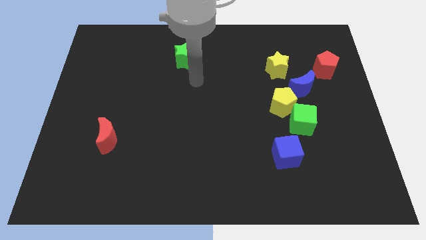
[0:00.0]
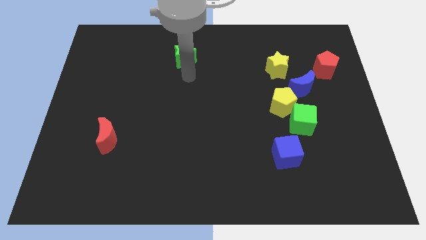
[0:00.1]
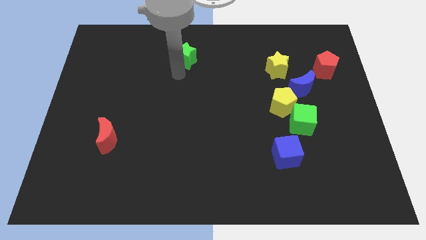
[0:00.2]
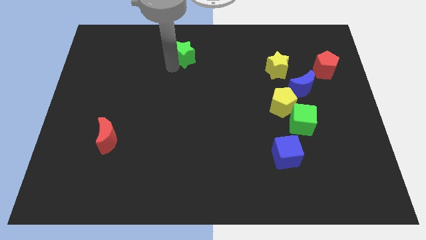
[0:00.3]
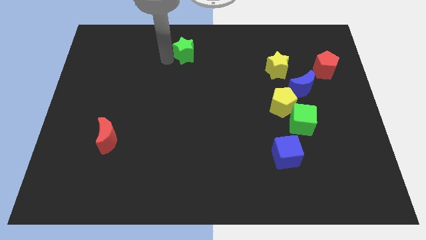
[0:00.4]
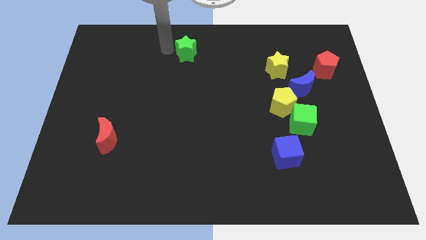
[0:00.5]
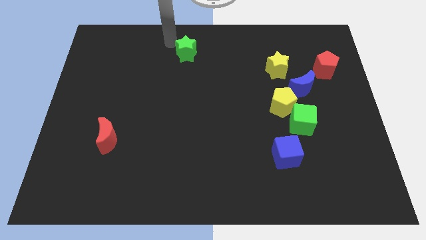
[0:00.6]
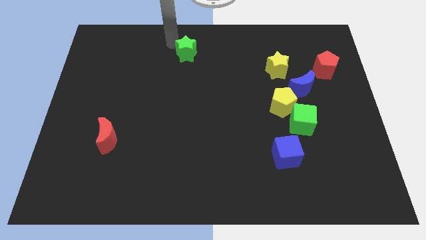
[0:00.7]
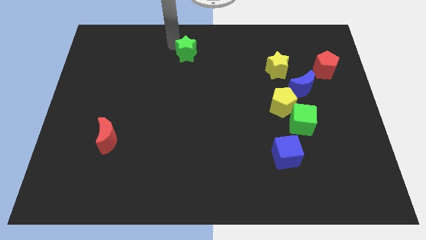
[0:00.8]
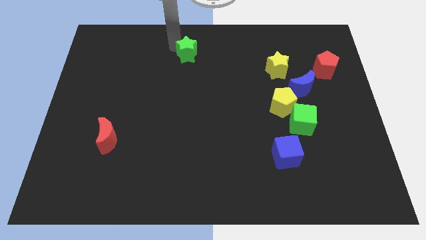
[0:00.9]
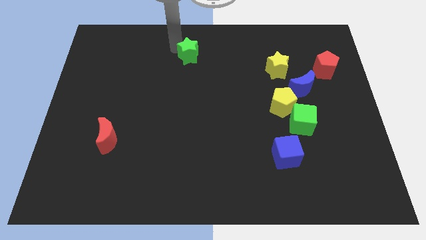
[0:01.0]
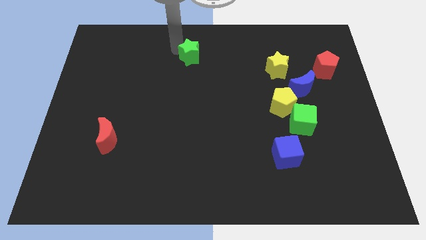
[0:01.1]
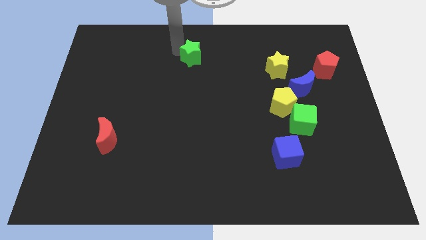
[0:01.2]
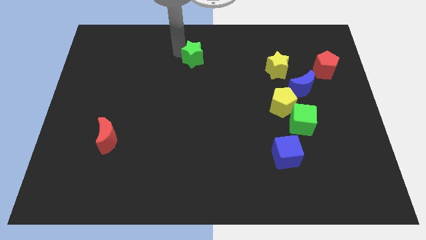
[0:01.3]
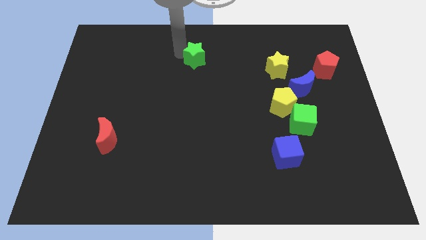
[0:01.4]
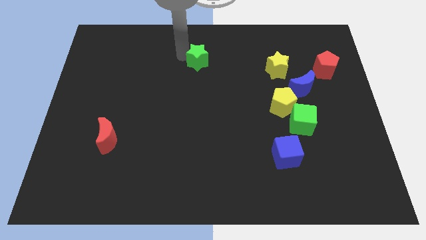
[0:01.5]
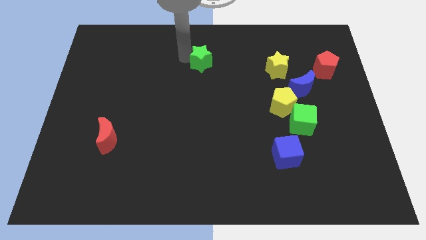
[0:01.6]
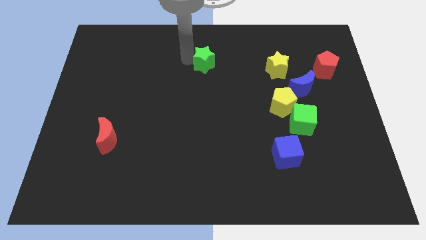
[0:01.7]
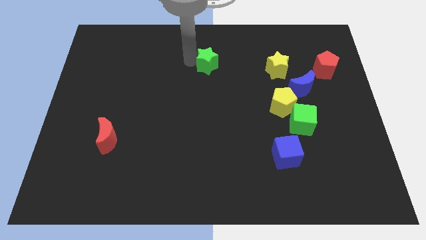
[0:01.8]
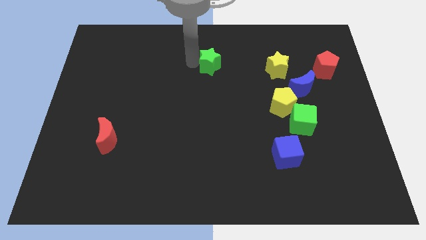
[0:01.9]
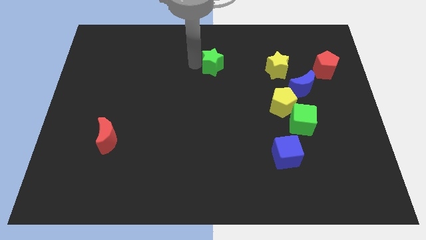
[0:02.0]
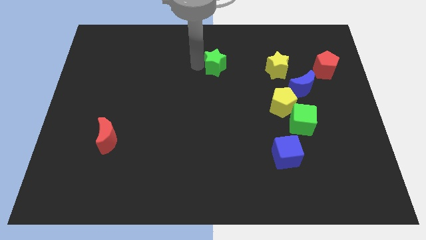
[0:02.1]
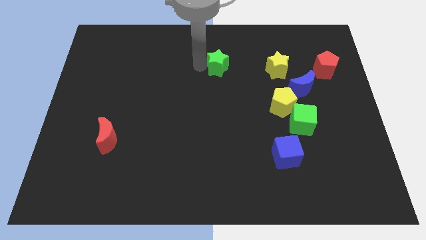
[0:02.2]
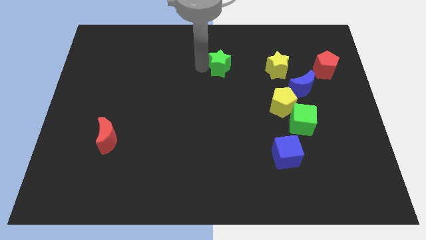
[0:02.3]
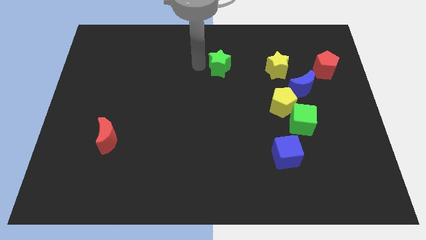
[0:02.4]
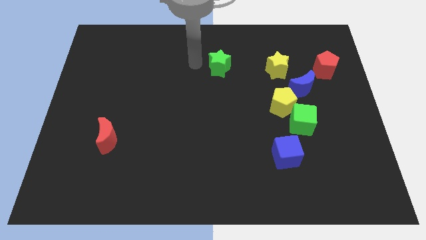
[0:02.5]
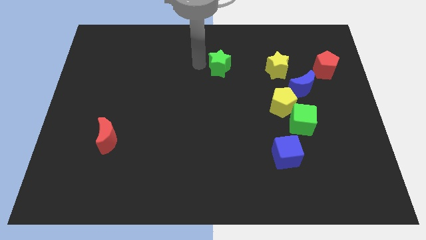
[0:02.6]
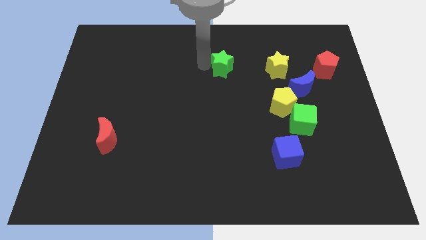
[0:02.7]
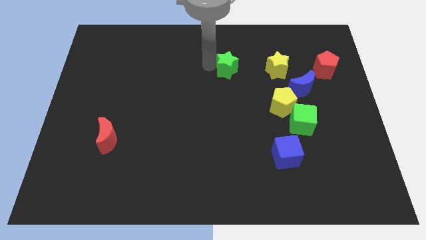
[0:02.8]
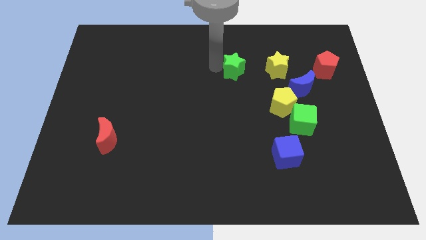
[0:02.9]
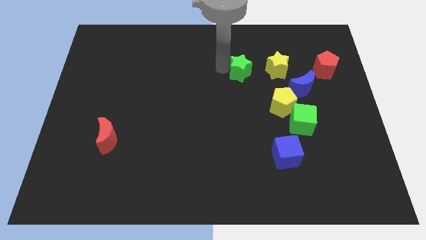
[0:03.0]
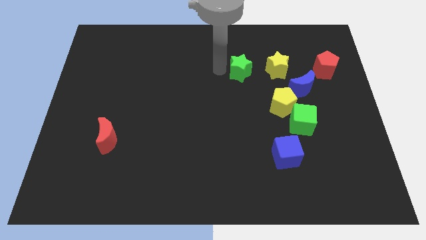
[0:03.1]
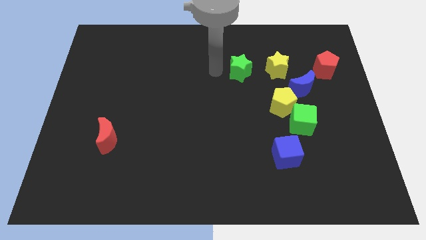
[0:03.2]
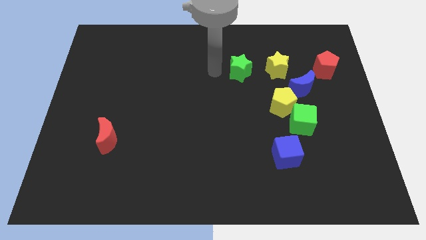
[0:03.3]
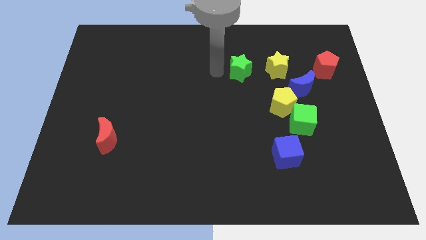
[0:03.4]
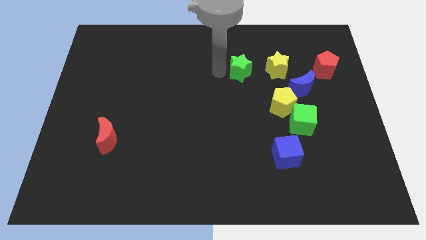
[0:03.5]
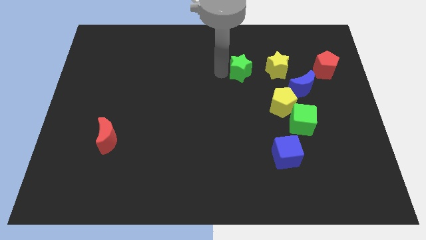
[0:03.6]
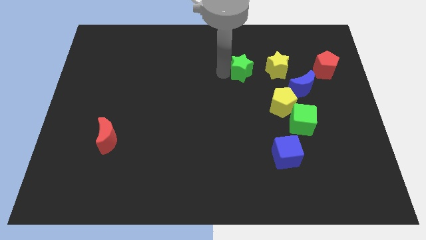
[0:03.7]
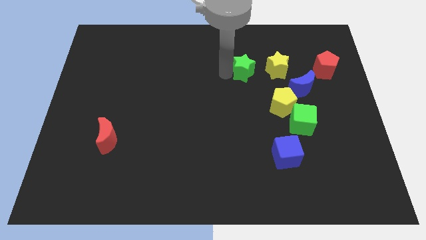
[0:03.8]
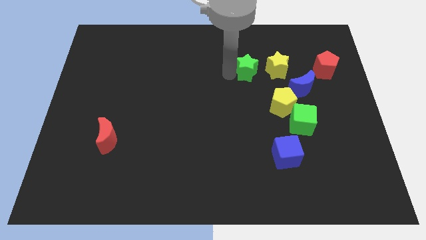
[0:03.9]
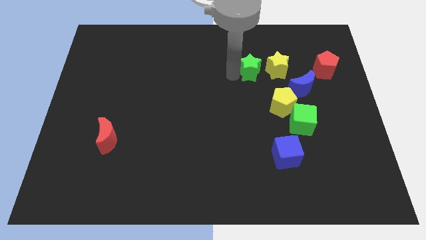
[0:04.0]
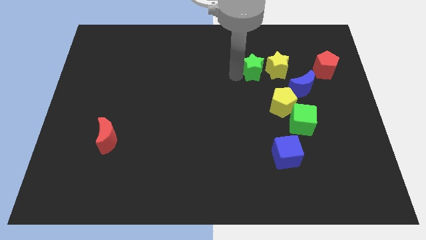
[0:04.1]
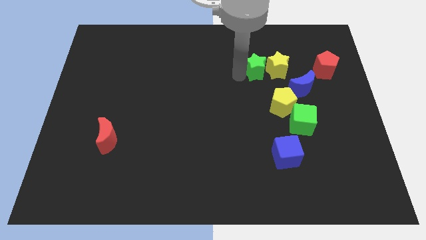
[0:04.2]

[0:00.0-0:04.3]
move the green star towards the yellow star

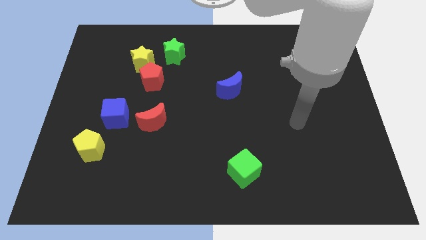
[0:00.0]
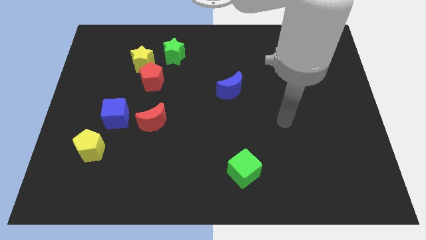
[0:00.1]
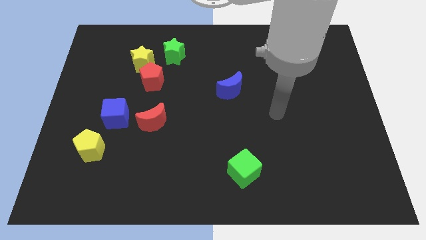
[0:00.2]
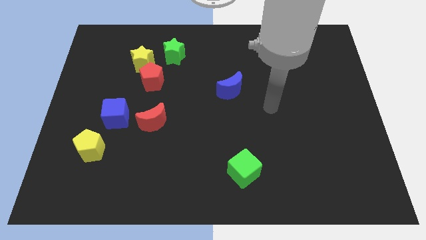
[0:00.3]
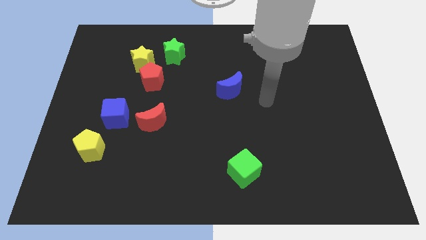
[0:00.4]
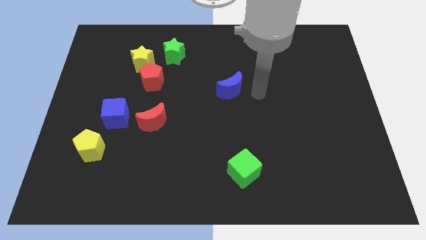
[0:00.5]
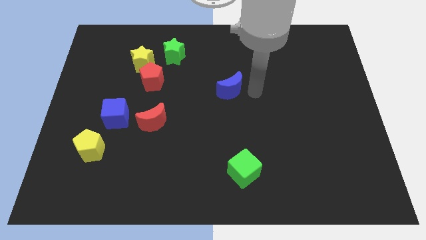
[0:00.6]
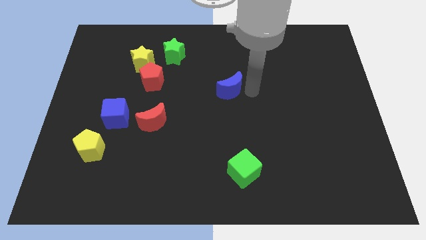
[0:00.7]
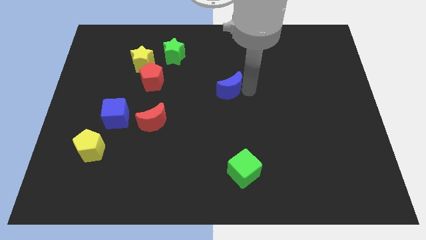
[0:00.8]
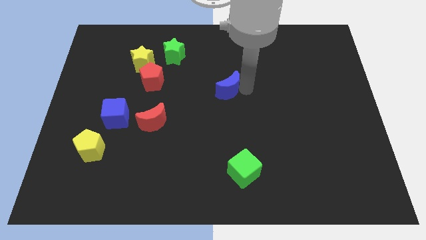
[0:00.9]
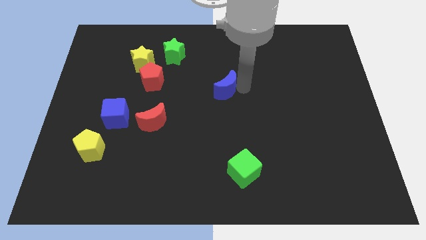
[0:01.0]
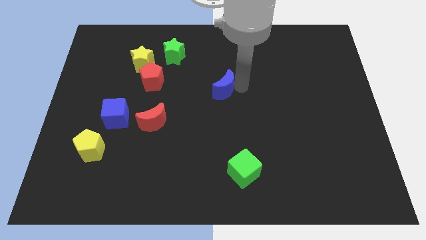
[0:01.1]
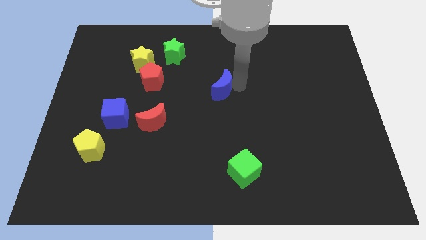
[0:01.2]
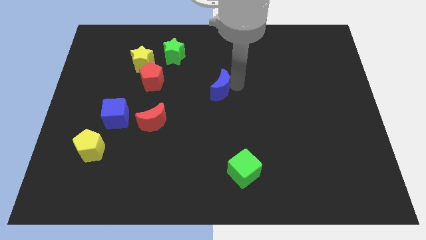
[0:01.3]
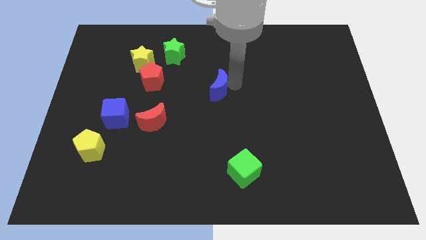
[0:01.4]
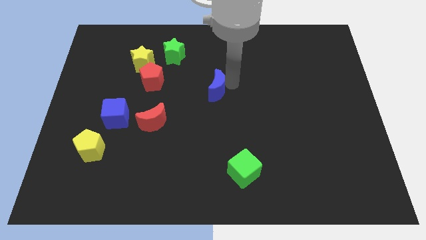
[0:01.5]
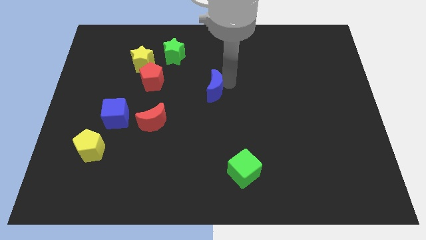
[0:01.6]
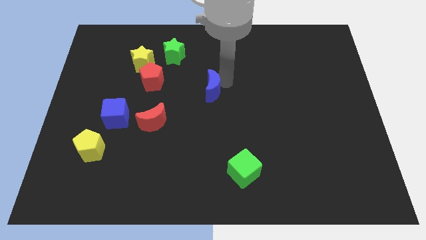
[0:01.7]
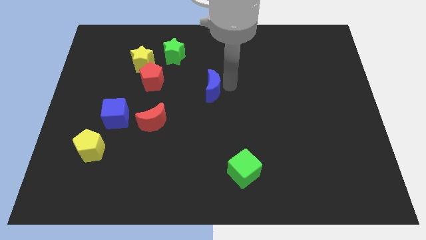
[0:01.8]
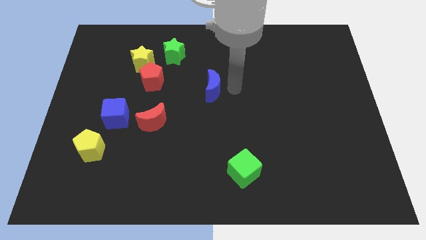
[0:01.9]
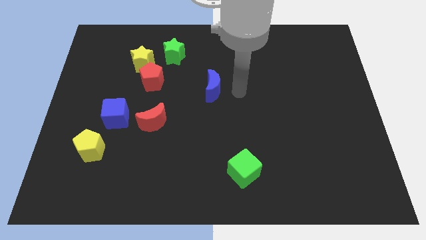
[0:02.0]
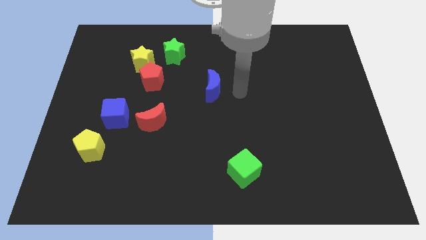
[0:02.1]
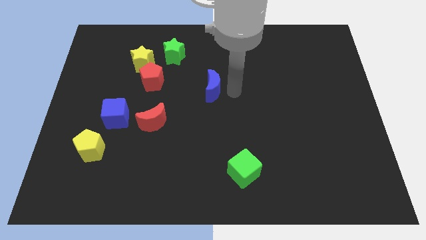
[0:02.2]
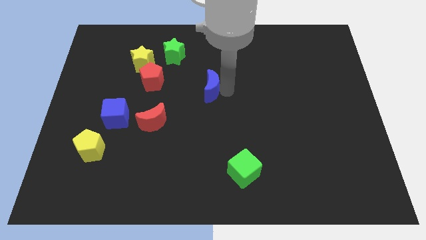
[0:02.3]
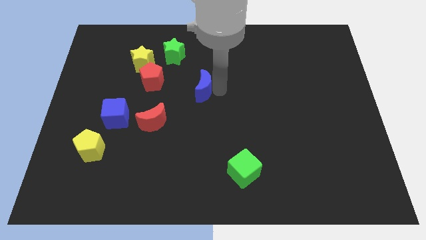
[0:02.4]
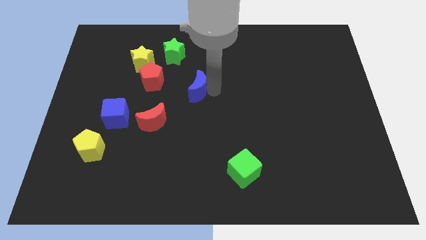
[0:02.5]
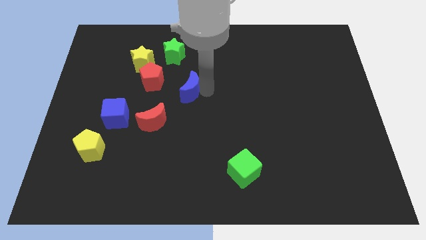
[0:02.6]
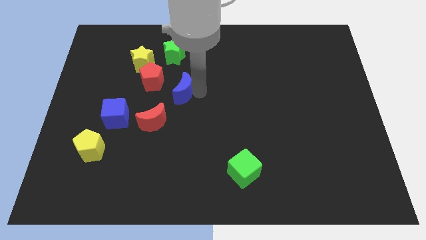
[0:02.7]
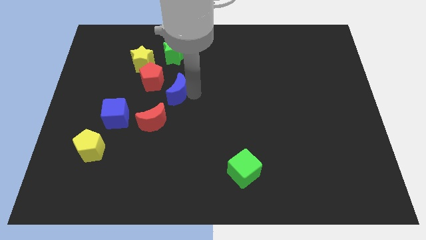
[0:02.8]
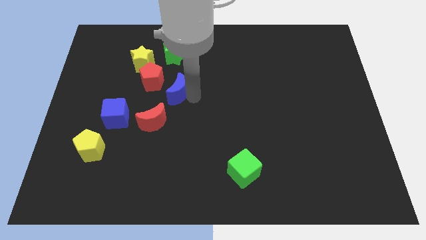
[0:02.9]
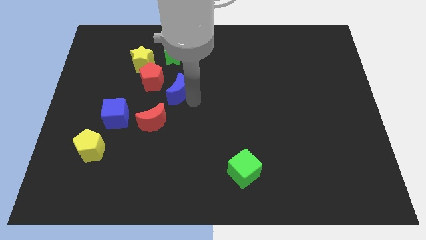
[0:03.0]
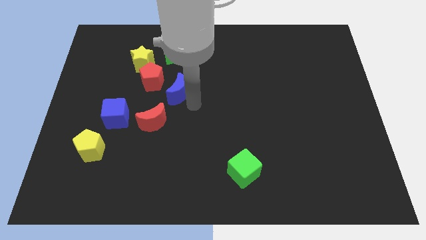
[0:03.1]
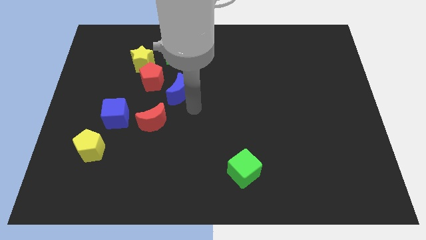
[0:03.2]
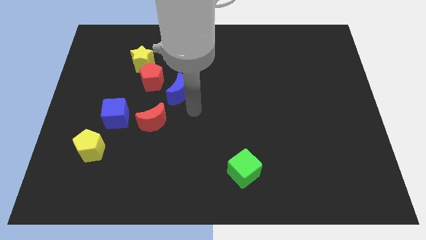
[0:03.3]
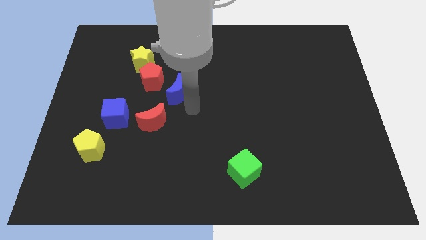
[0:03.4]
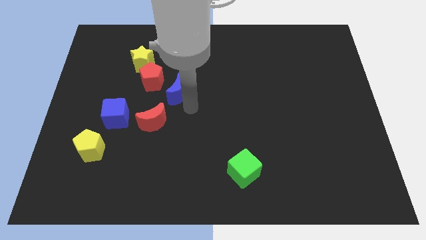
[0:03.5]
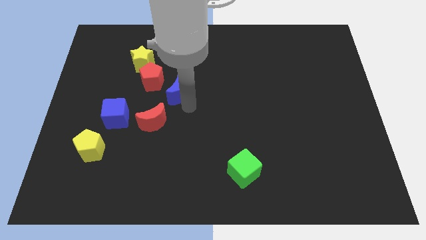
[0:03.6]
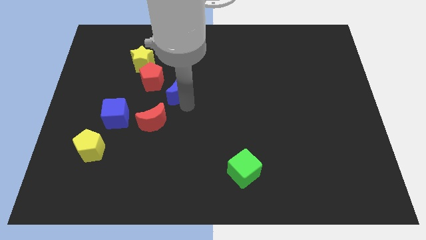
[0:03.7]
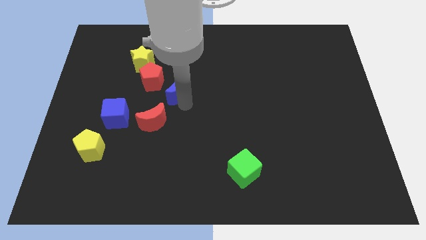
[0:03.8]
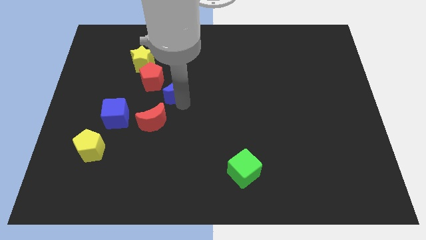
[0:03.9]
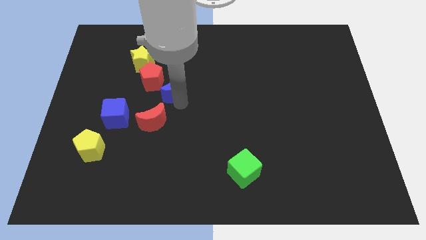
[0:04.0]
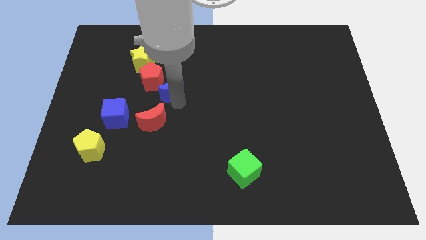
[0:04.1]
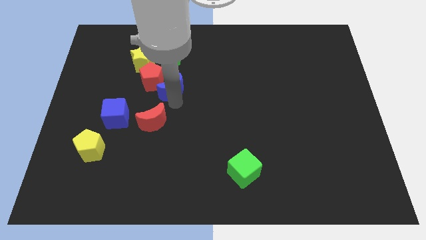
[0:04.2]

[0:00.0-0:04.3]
move the blue moon to the red pentagon
